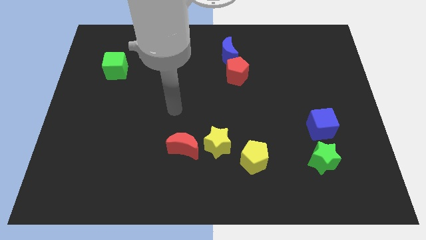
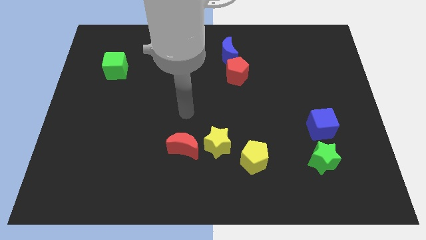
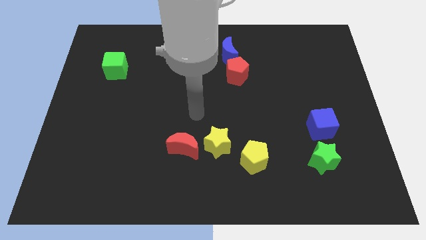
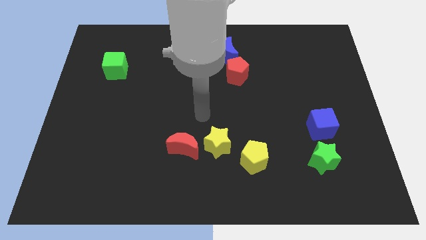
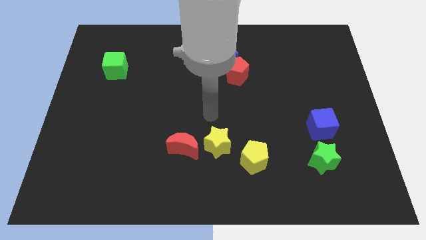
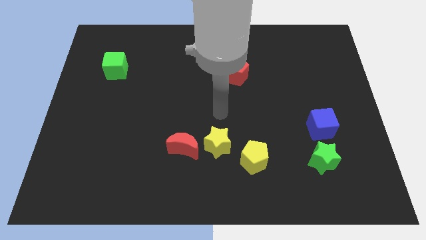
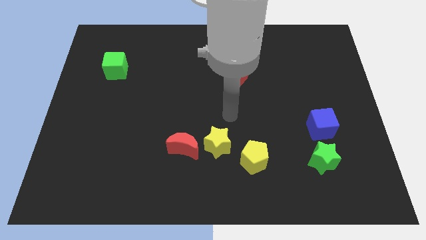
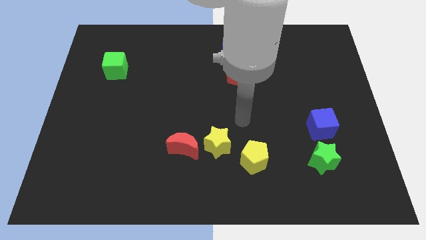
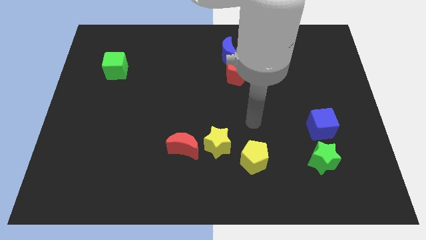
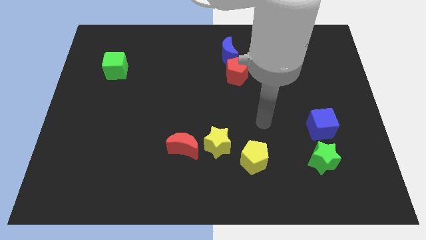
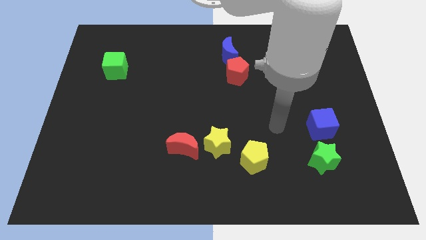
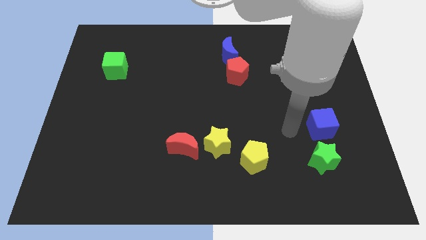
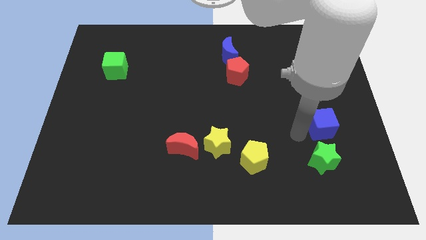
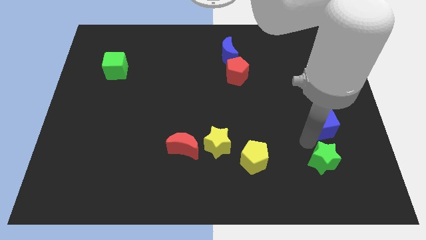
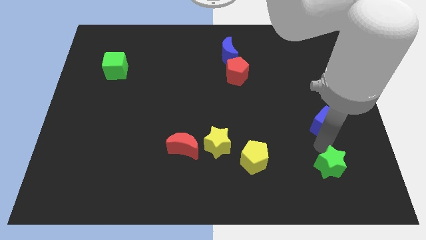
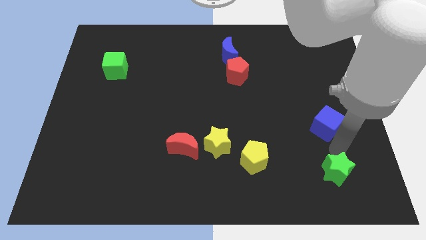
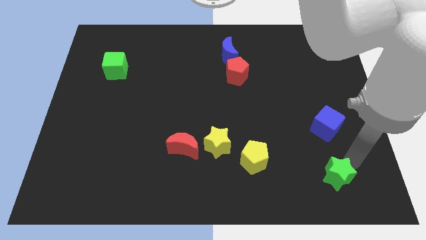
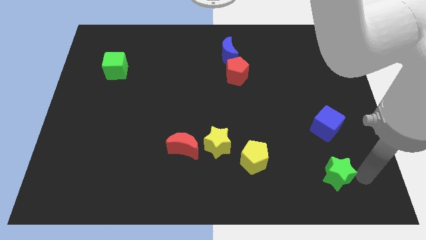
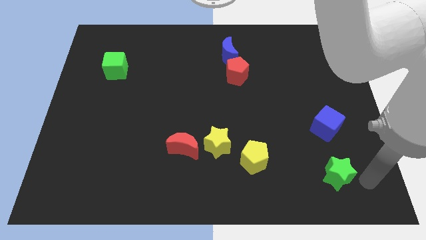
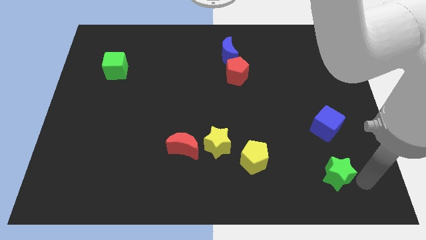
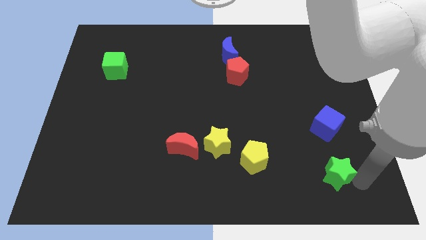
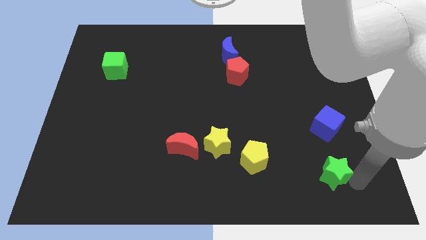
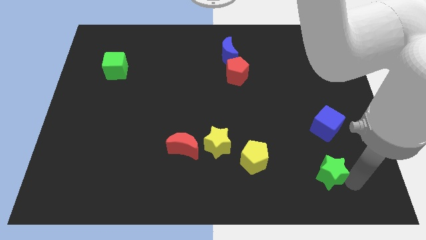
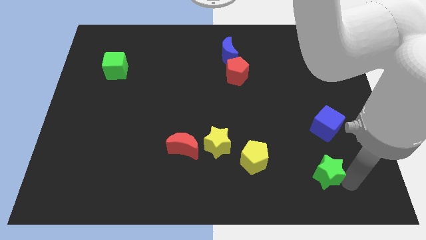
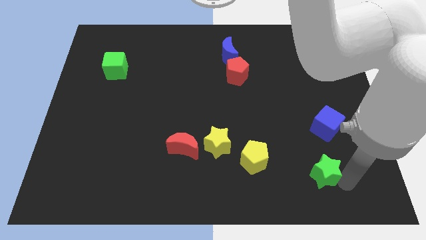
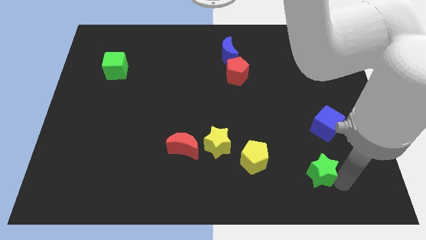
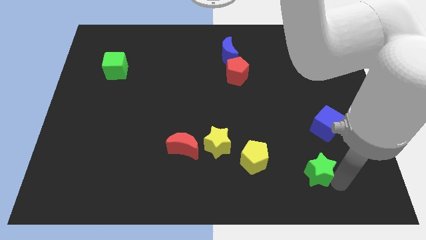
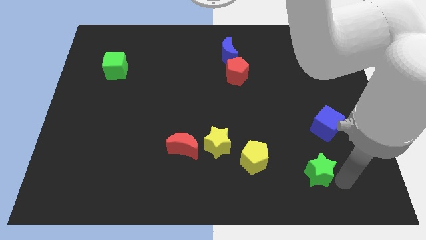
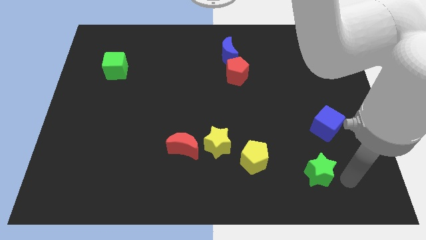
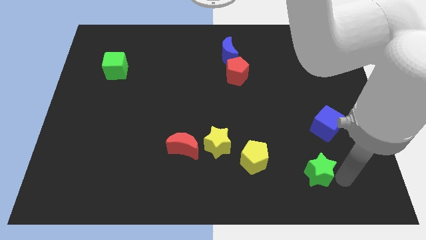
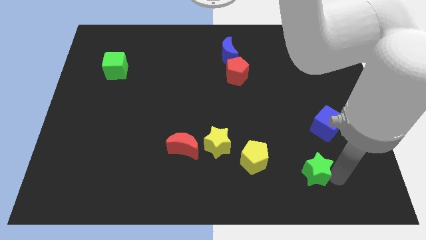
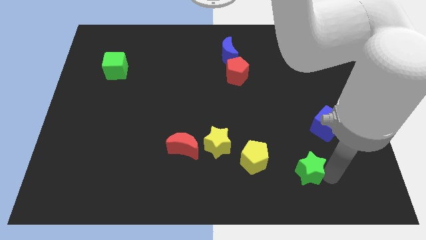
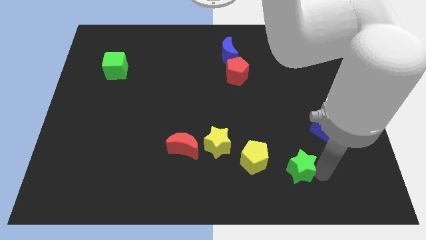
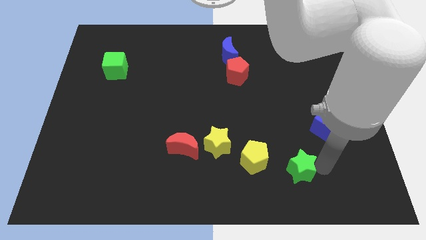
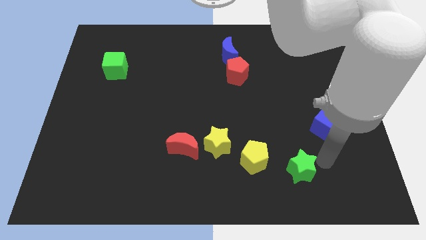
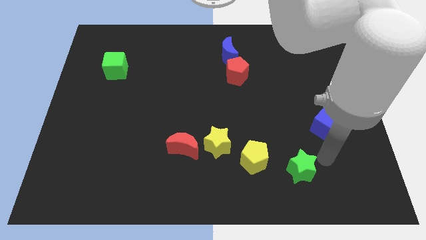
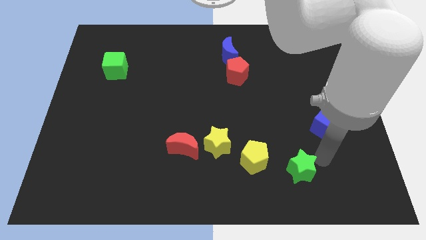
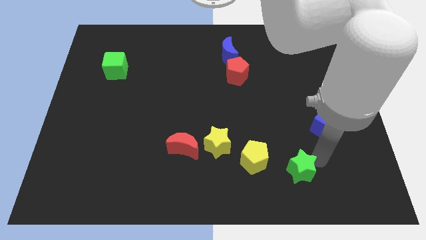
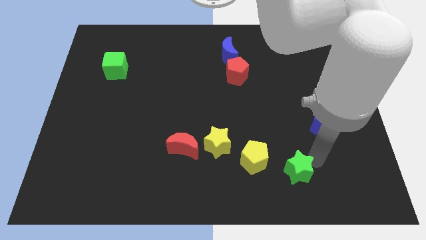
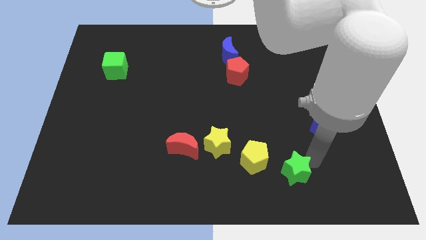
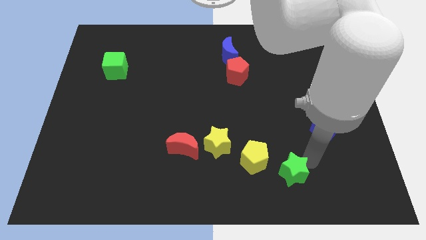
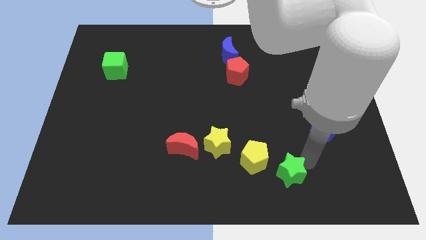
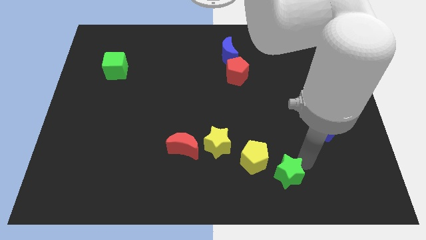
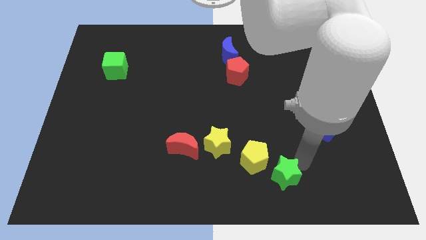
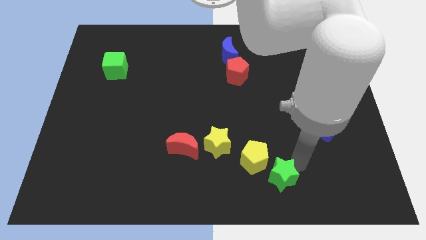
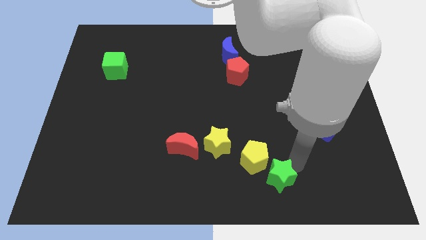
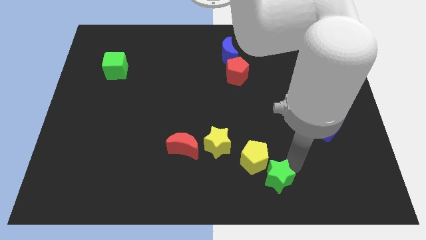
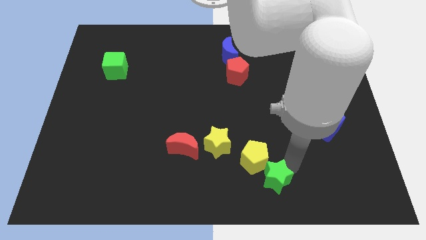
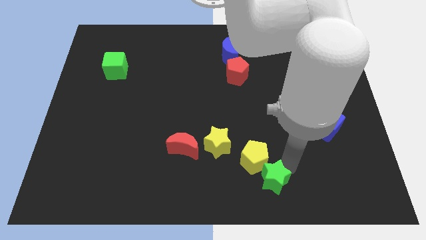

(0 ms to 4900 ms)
move the green star to the bottom

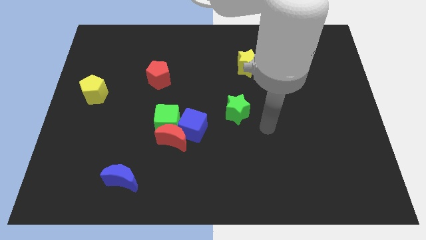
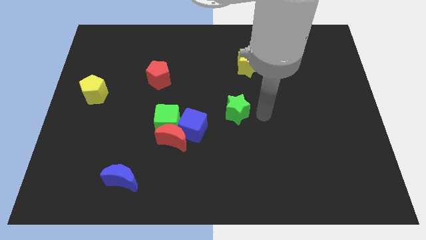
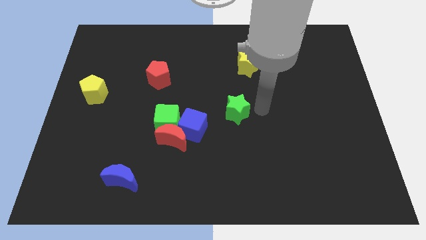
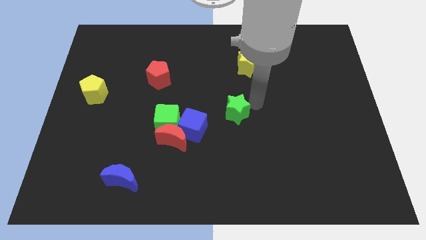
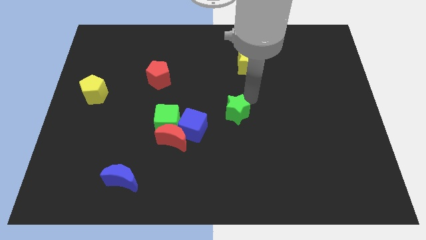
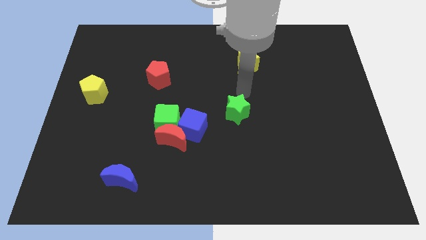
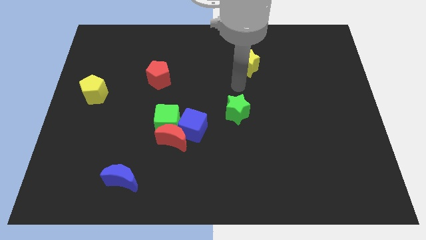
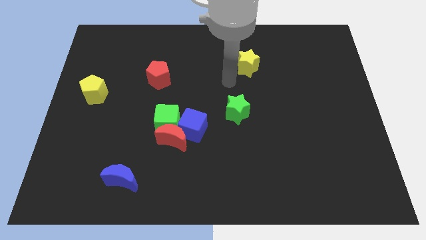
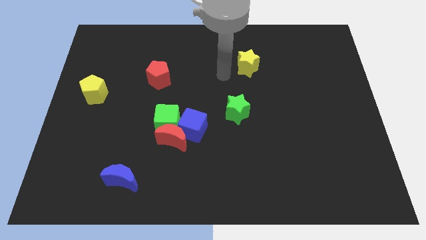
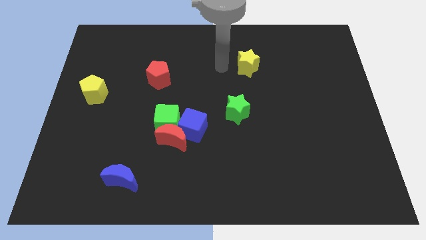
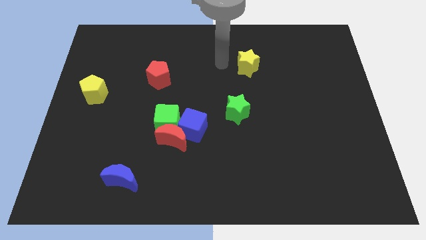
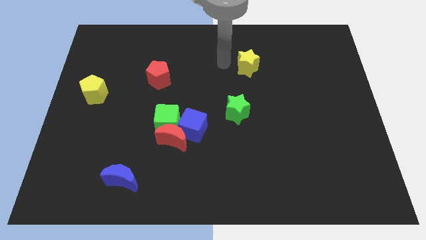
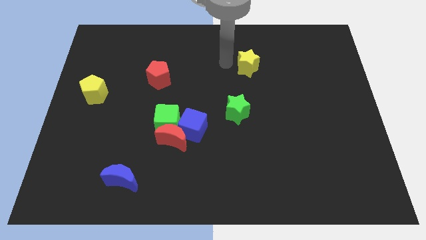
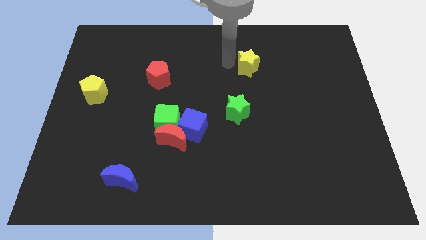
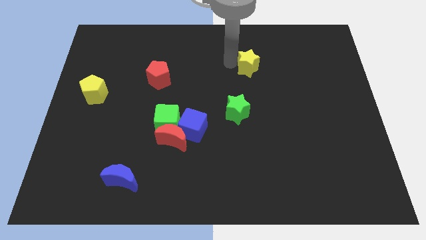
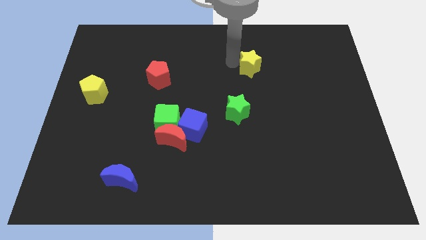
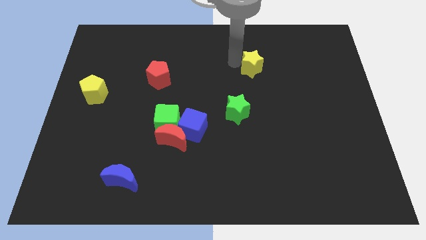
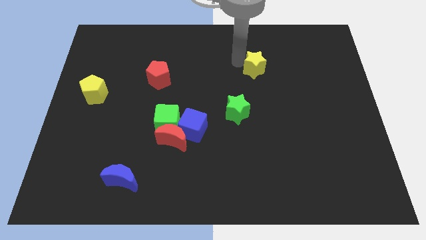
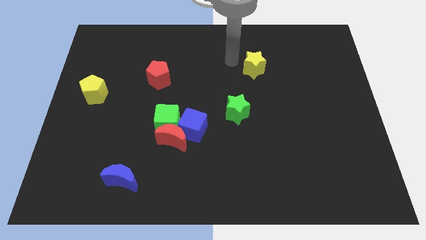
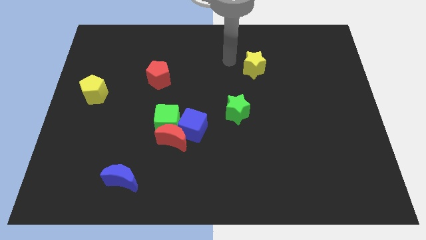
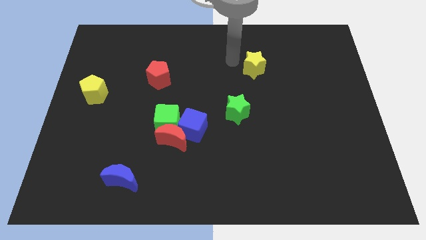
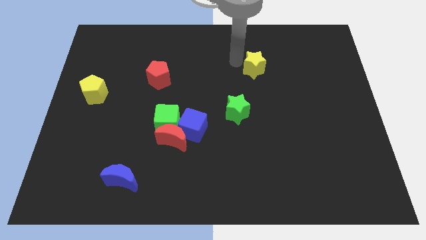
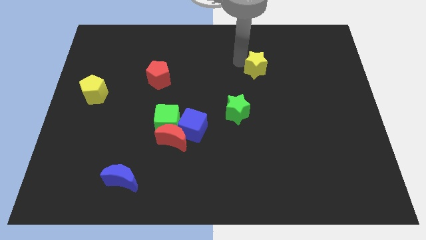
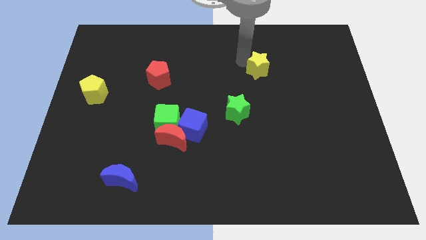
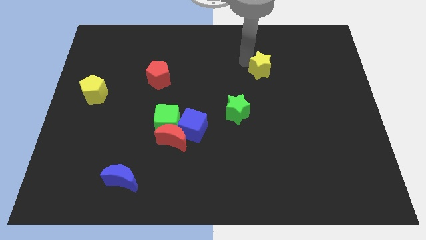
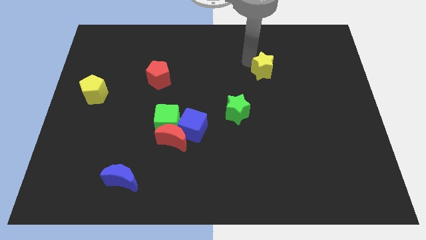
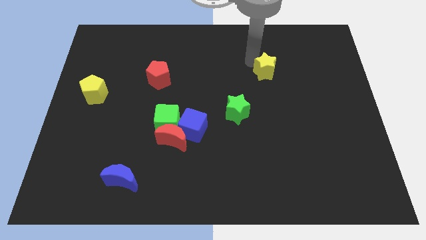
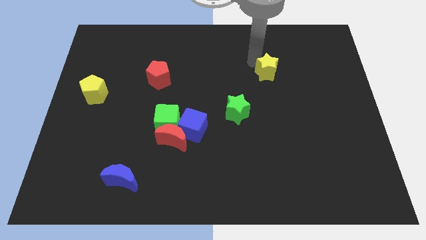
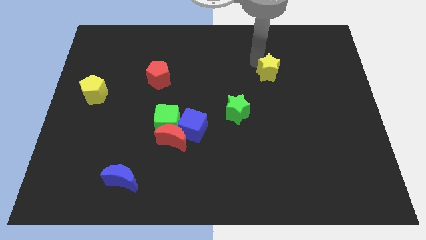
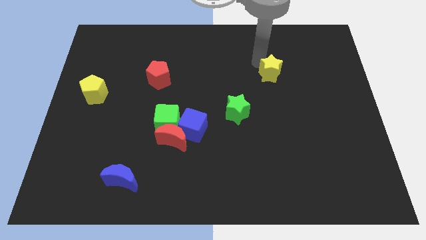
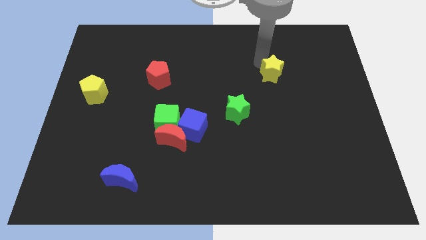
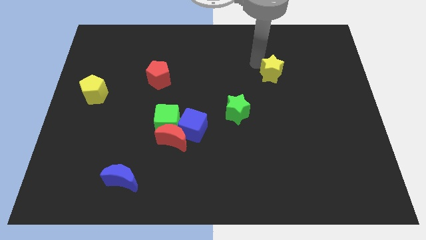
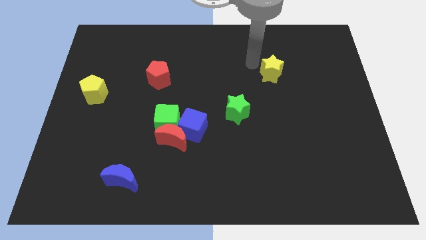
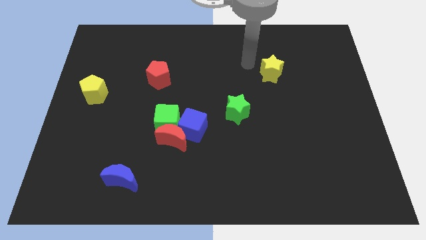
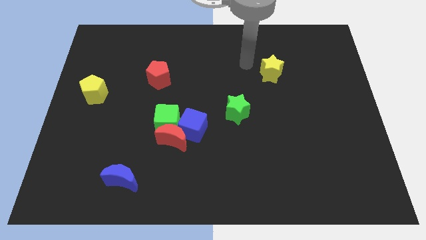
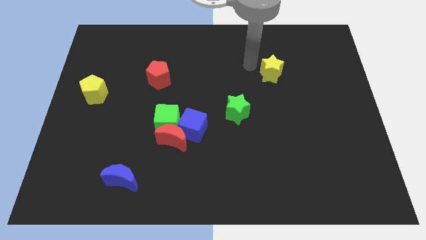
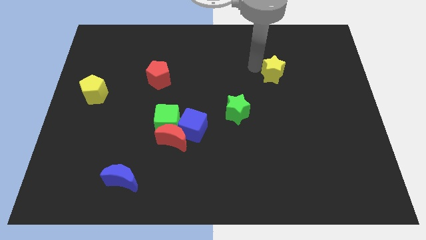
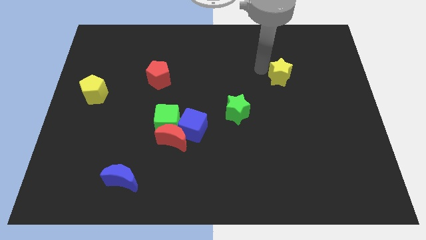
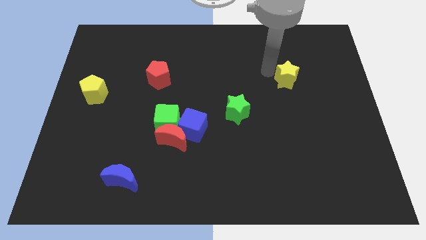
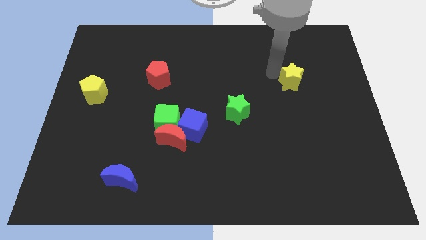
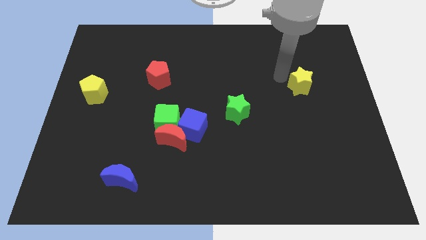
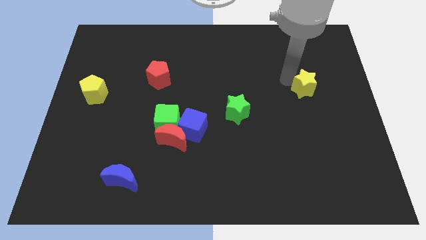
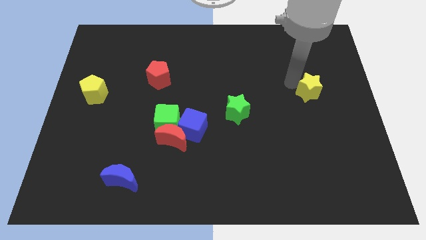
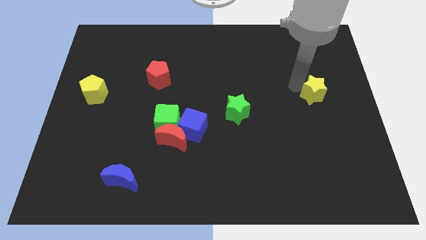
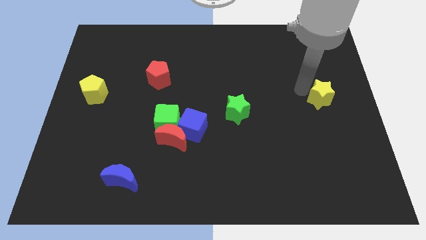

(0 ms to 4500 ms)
move the yellow star to the right side of the board
